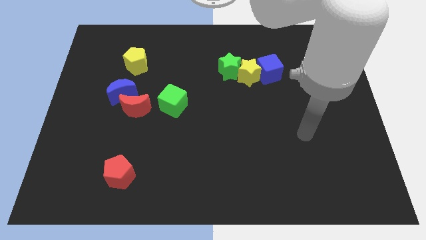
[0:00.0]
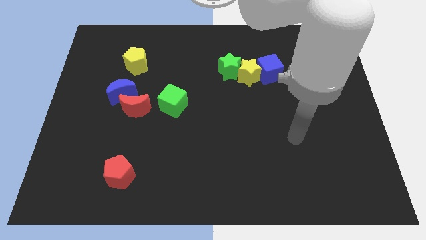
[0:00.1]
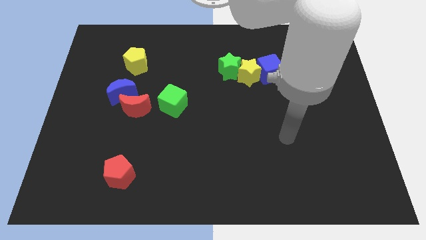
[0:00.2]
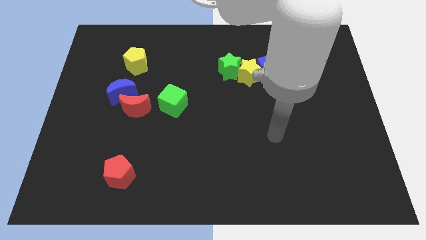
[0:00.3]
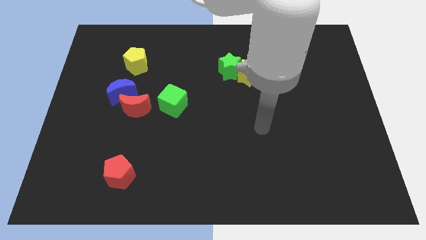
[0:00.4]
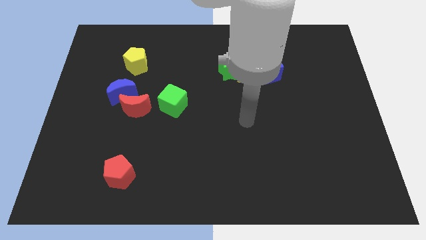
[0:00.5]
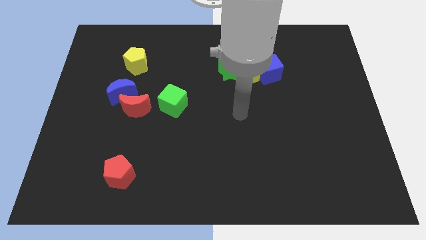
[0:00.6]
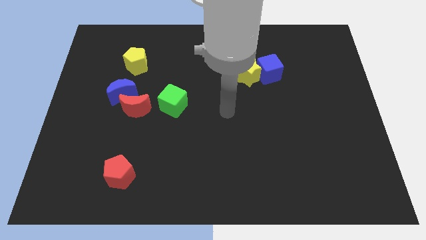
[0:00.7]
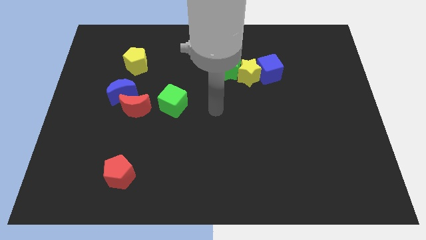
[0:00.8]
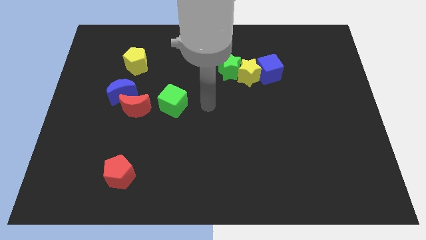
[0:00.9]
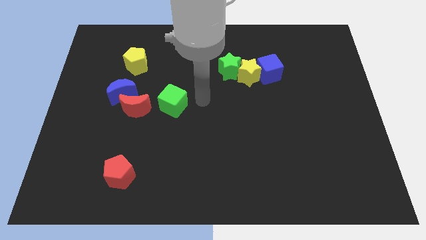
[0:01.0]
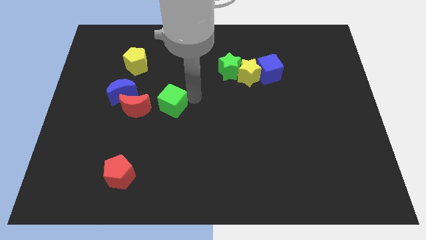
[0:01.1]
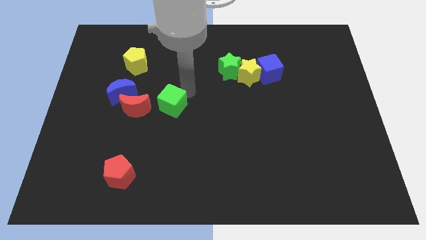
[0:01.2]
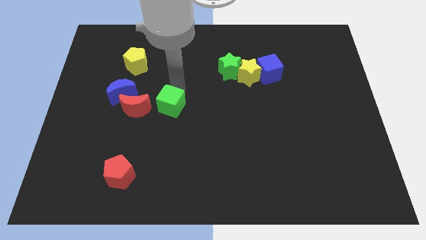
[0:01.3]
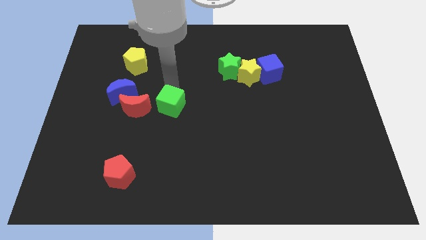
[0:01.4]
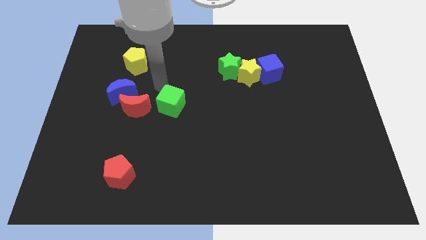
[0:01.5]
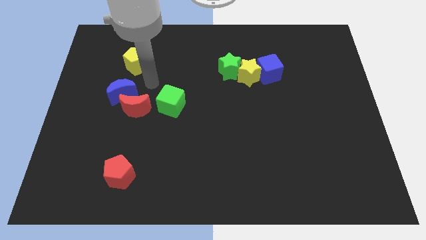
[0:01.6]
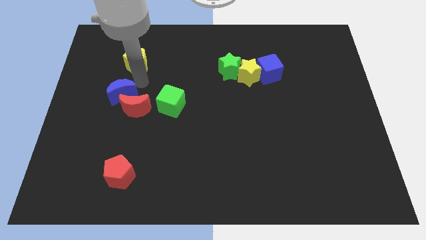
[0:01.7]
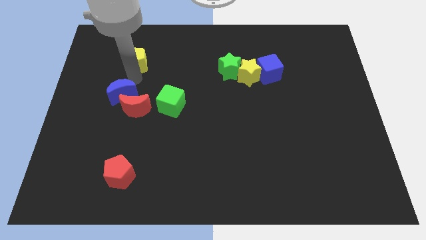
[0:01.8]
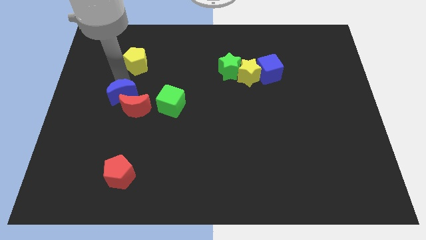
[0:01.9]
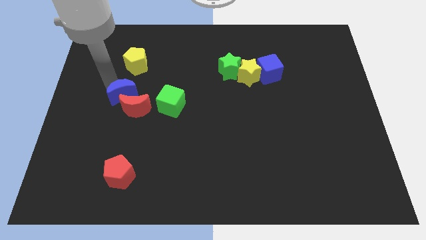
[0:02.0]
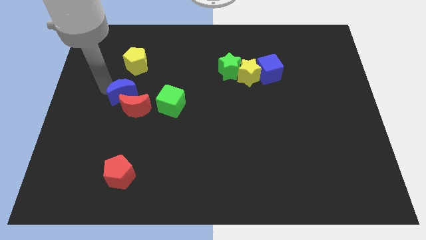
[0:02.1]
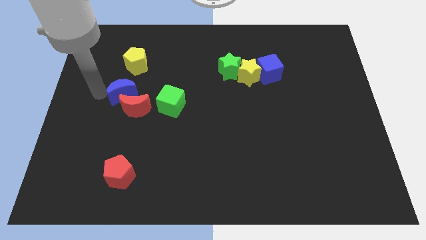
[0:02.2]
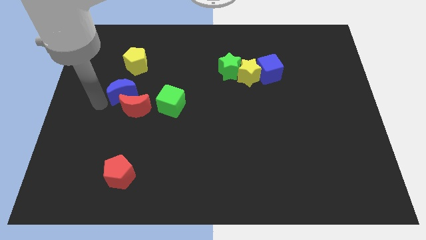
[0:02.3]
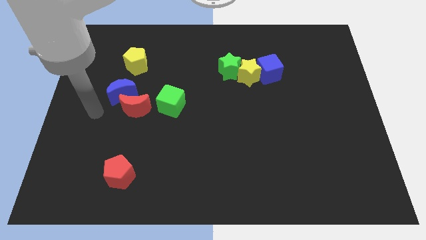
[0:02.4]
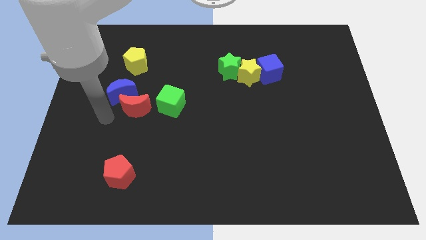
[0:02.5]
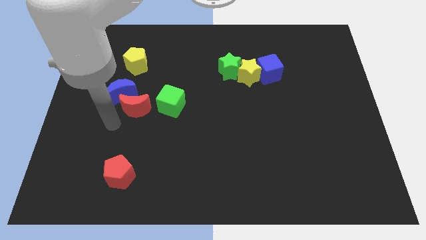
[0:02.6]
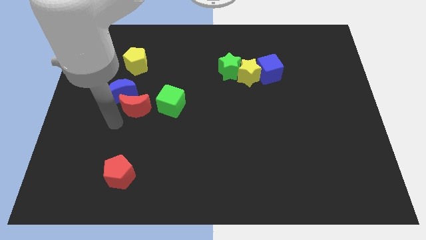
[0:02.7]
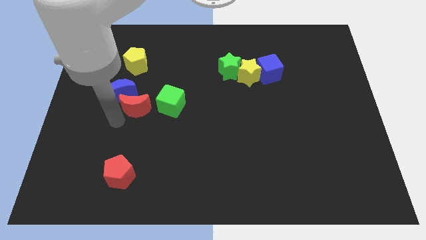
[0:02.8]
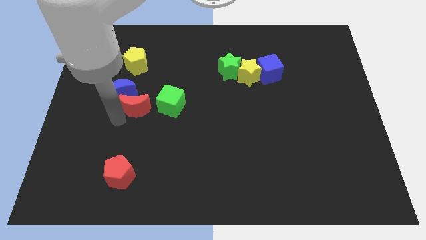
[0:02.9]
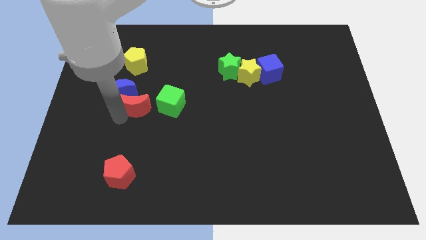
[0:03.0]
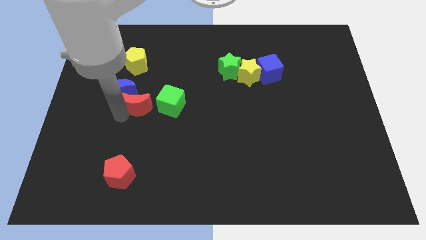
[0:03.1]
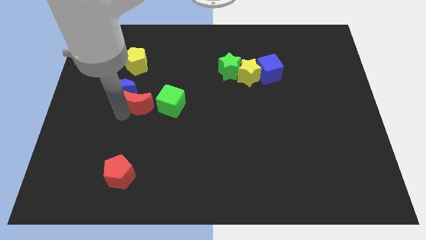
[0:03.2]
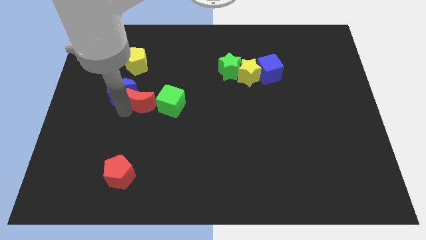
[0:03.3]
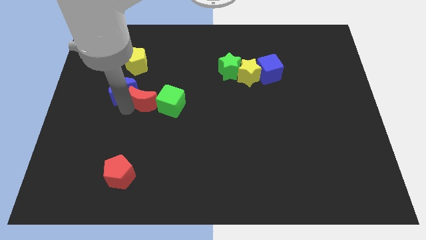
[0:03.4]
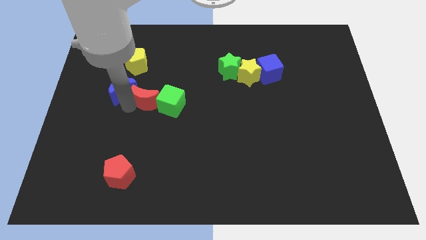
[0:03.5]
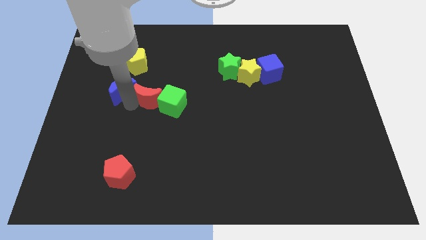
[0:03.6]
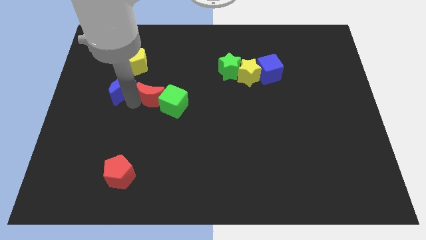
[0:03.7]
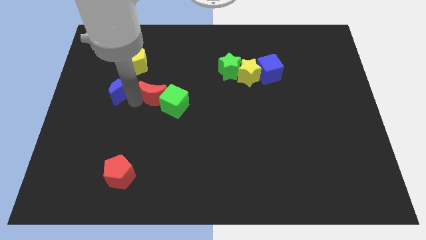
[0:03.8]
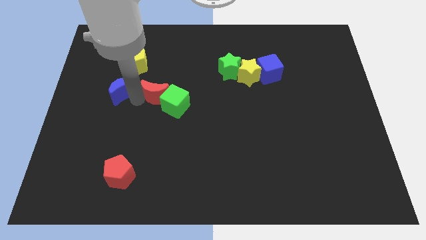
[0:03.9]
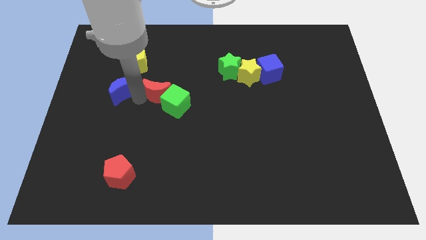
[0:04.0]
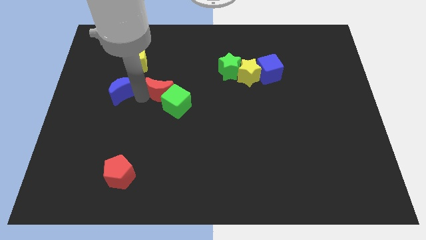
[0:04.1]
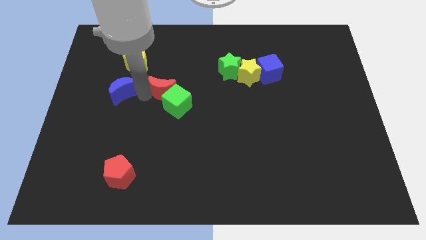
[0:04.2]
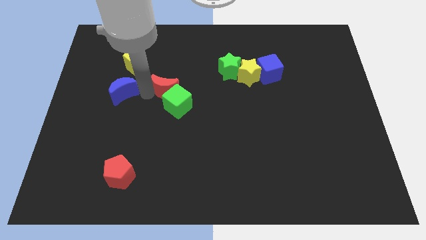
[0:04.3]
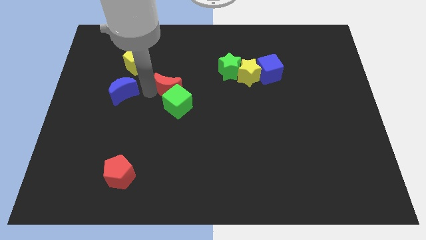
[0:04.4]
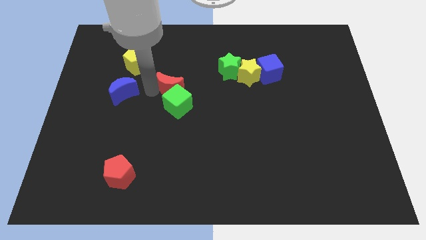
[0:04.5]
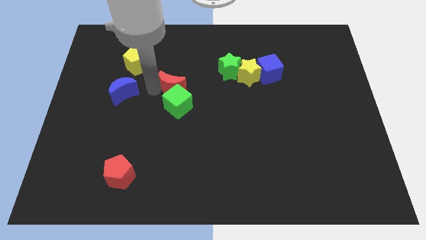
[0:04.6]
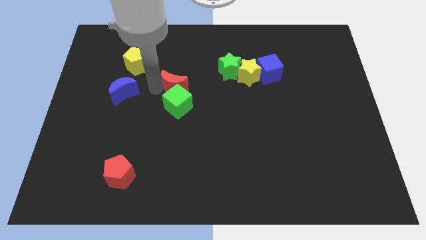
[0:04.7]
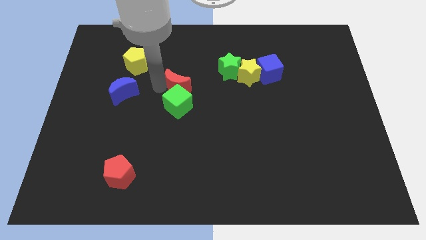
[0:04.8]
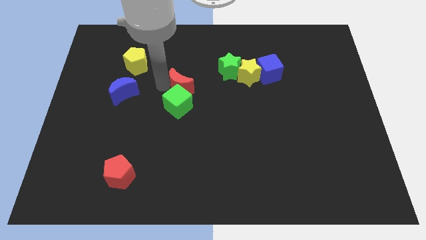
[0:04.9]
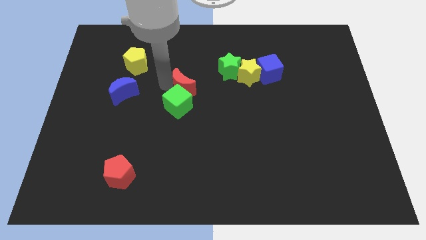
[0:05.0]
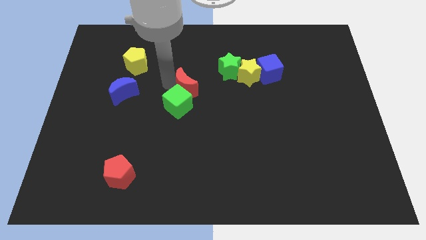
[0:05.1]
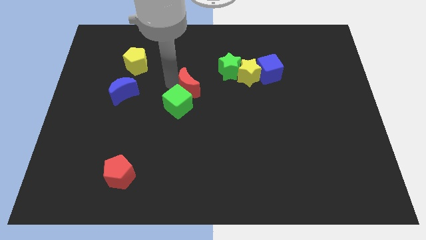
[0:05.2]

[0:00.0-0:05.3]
push the red moon to the bottom left side of the green star

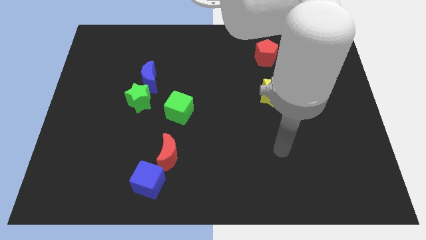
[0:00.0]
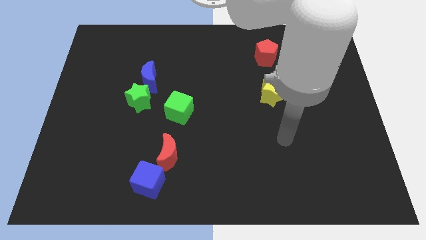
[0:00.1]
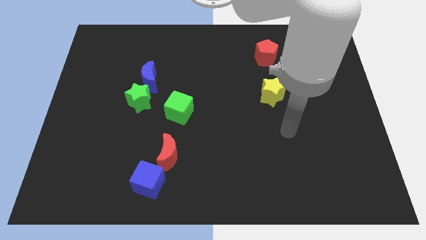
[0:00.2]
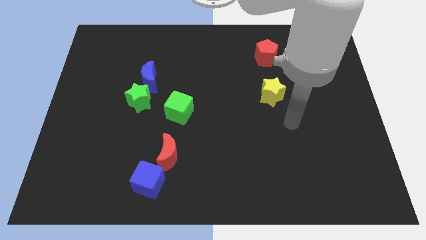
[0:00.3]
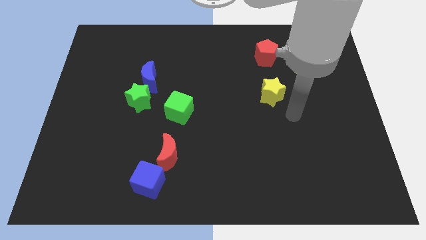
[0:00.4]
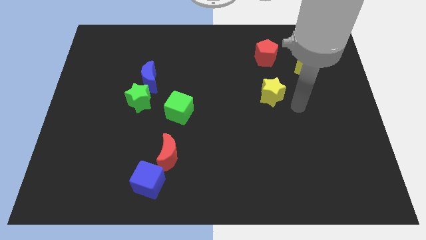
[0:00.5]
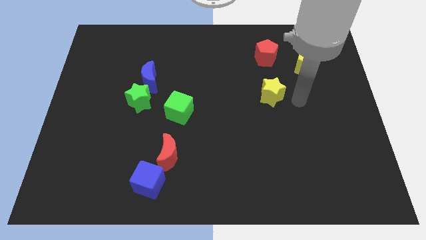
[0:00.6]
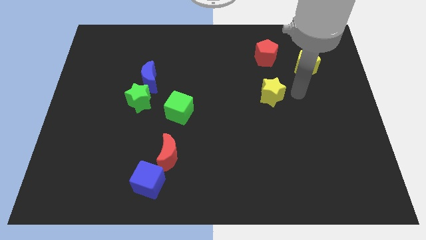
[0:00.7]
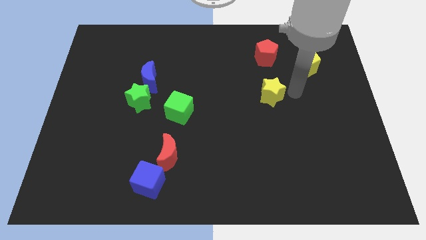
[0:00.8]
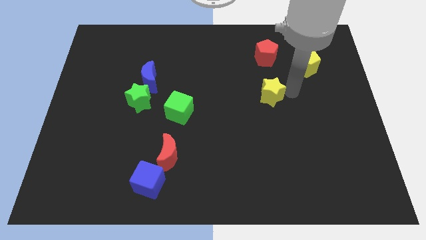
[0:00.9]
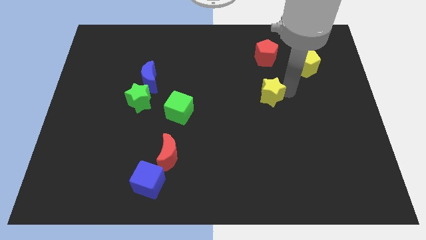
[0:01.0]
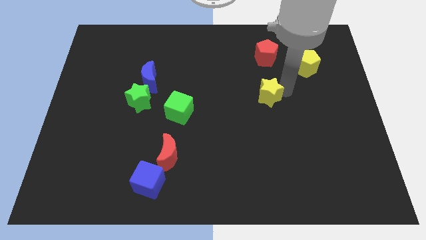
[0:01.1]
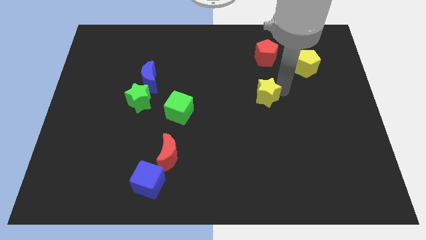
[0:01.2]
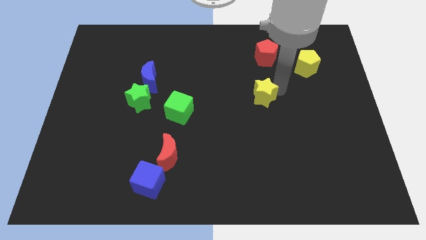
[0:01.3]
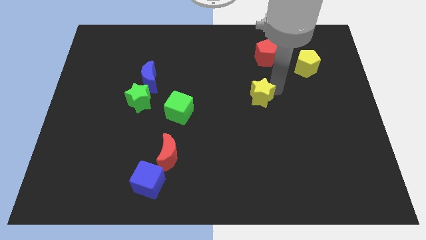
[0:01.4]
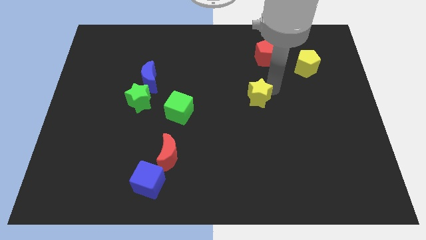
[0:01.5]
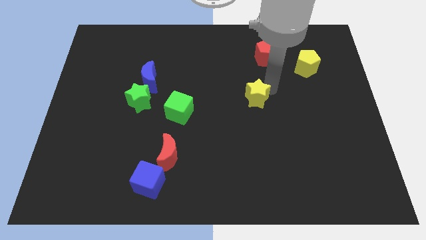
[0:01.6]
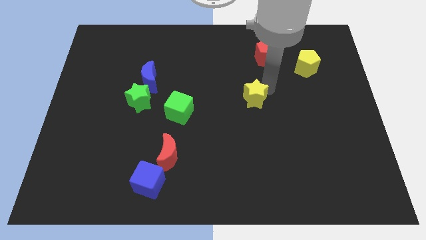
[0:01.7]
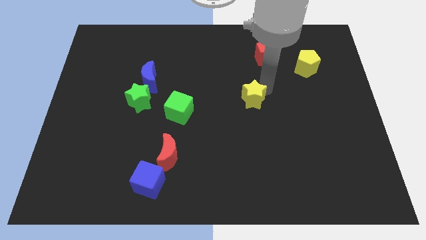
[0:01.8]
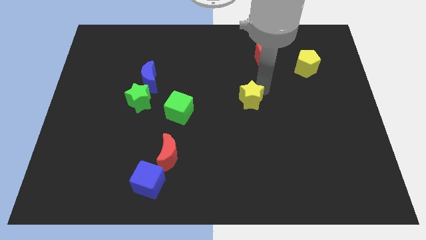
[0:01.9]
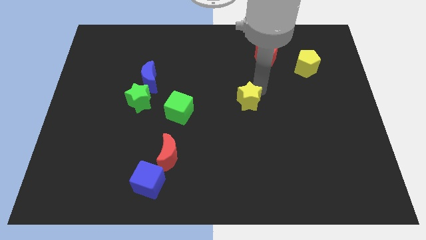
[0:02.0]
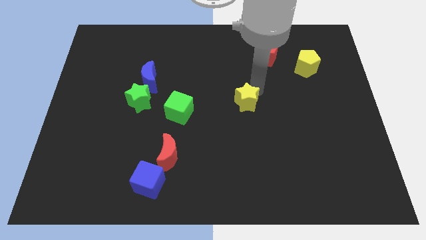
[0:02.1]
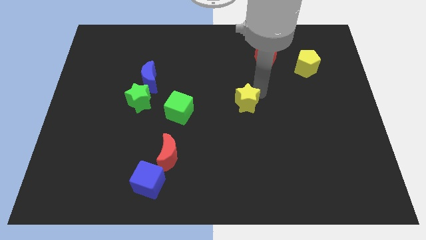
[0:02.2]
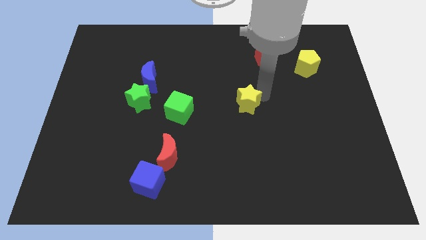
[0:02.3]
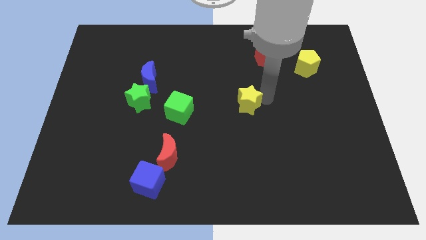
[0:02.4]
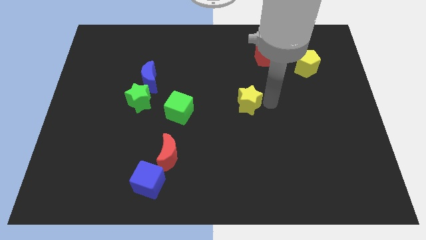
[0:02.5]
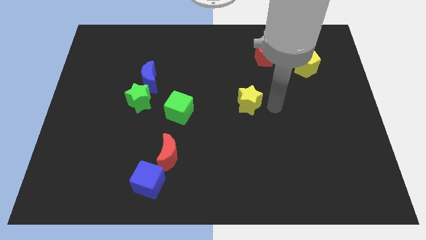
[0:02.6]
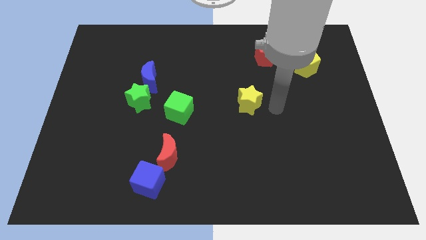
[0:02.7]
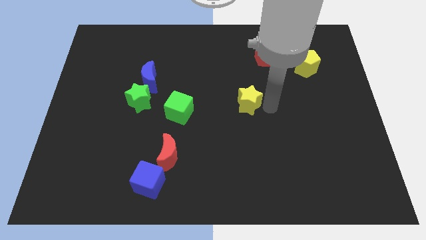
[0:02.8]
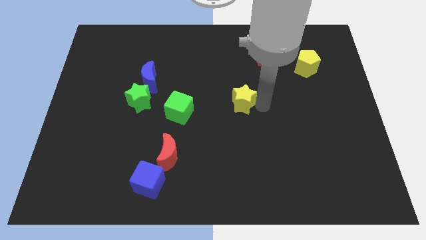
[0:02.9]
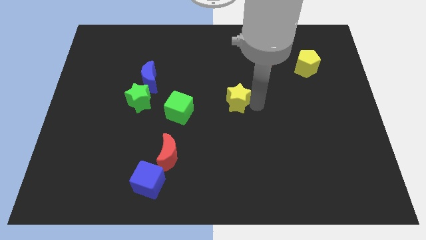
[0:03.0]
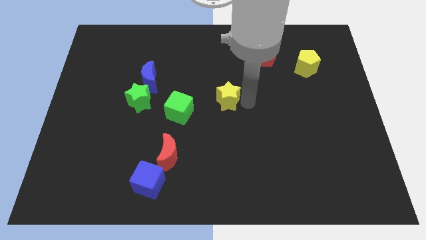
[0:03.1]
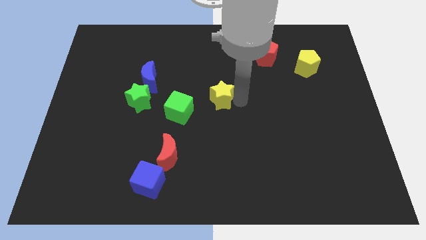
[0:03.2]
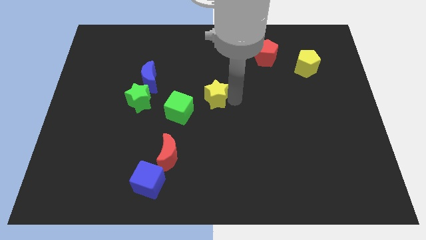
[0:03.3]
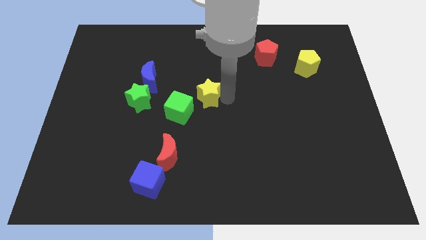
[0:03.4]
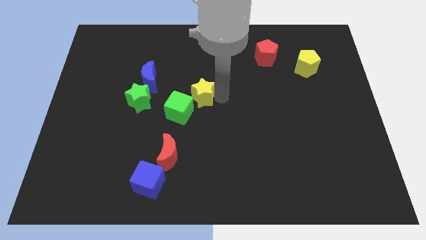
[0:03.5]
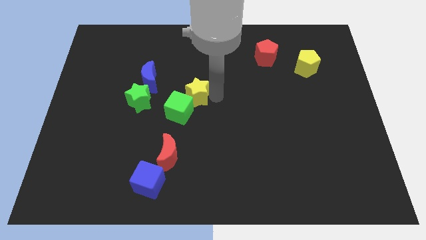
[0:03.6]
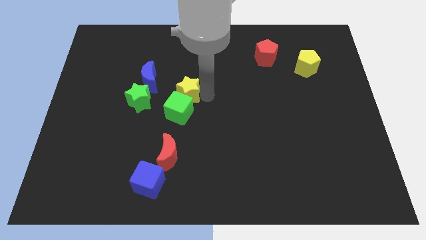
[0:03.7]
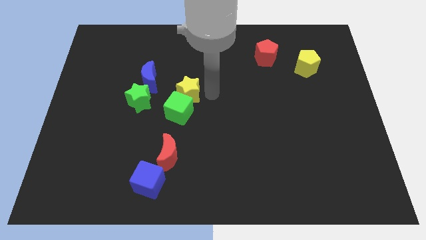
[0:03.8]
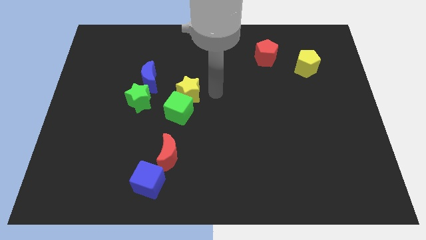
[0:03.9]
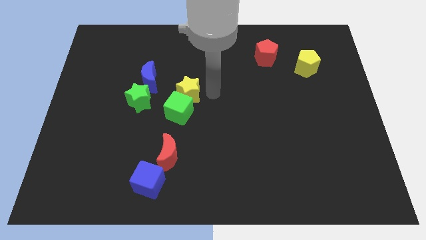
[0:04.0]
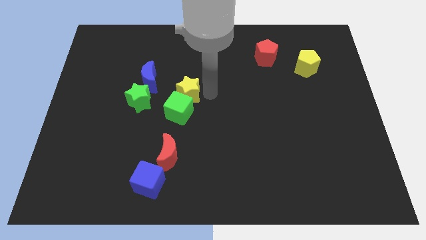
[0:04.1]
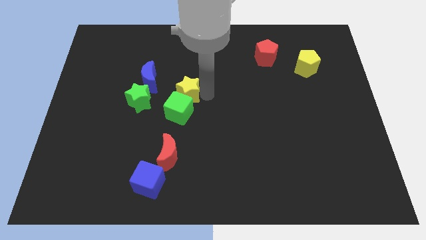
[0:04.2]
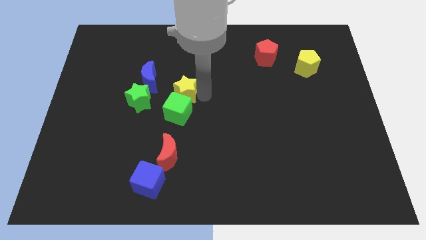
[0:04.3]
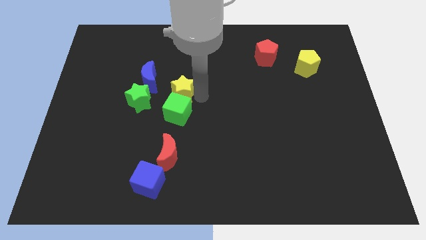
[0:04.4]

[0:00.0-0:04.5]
slide the yellow star to the top left side of the green cube
